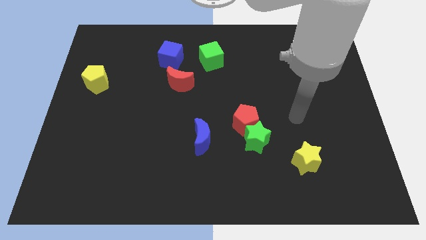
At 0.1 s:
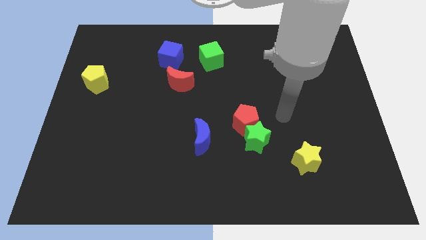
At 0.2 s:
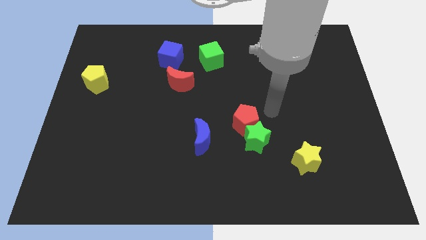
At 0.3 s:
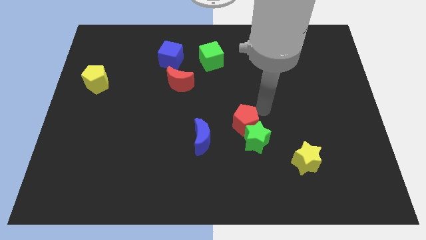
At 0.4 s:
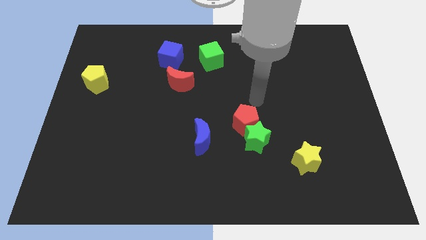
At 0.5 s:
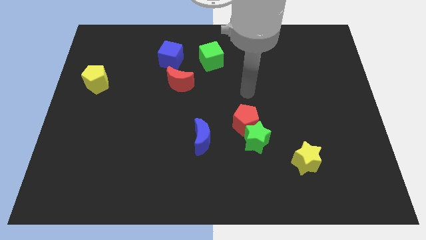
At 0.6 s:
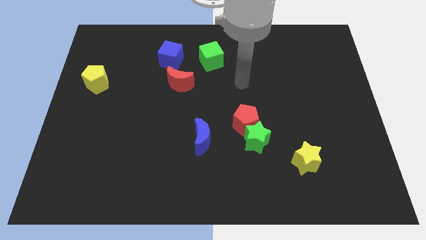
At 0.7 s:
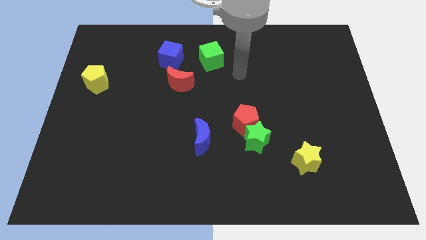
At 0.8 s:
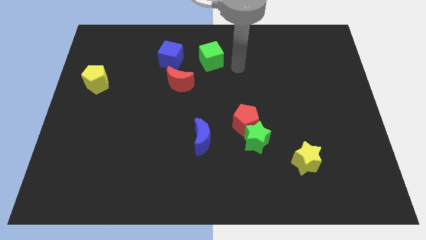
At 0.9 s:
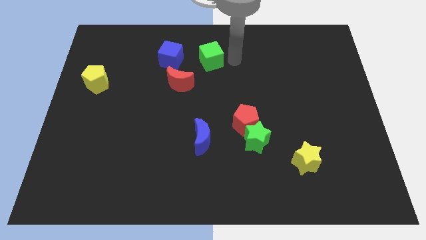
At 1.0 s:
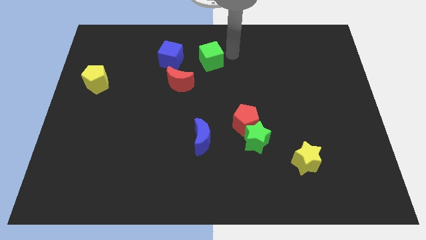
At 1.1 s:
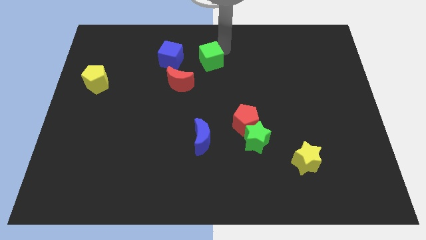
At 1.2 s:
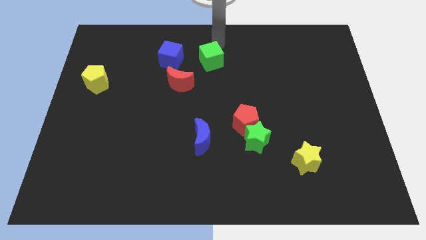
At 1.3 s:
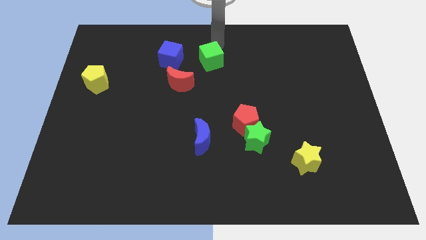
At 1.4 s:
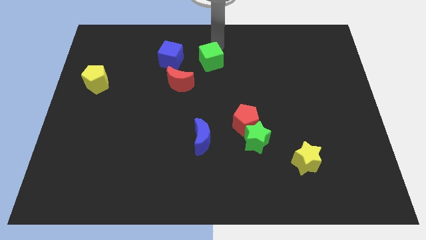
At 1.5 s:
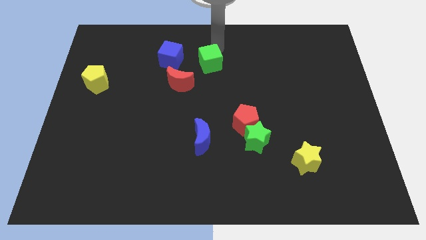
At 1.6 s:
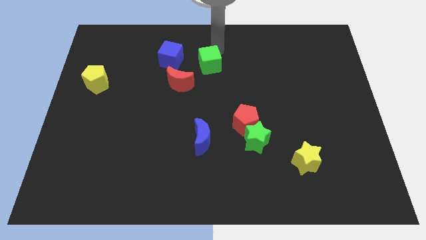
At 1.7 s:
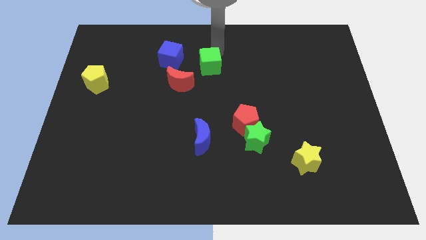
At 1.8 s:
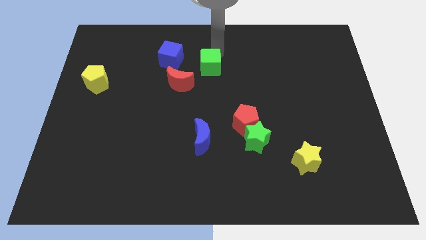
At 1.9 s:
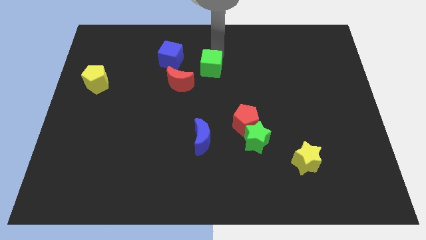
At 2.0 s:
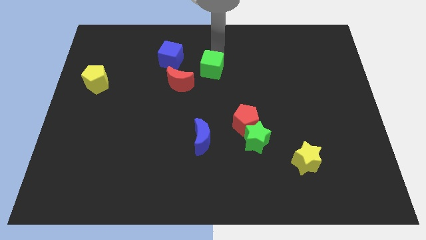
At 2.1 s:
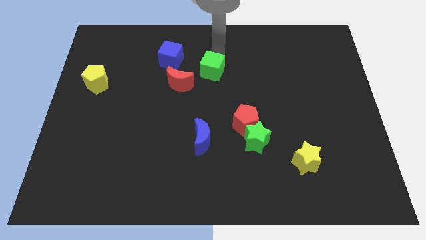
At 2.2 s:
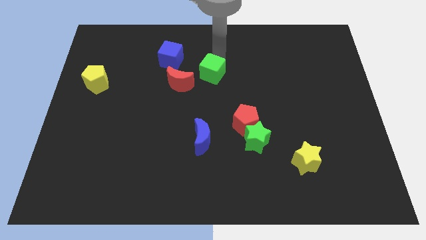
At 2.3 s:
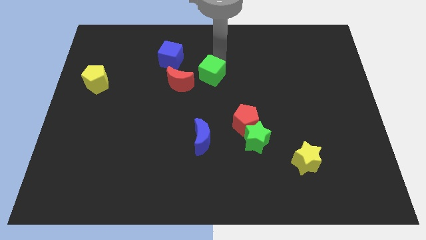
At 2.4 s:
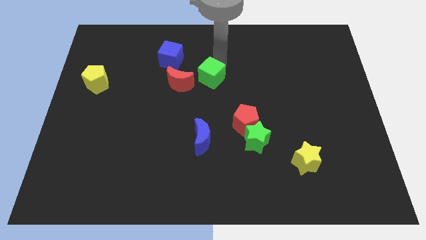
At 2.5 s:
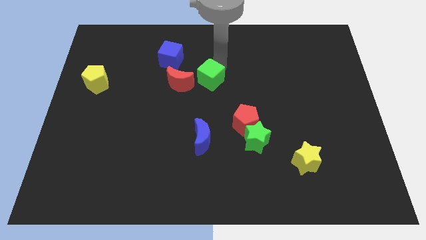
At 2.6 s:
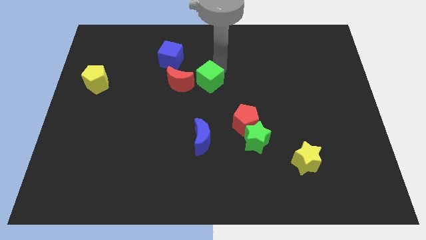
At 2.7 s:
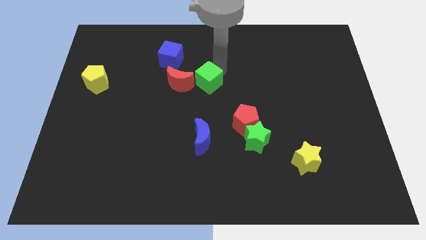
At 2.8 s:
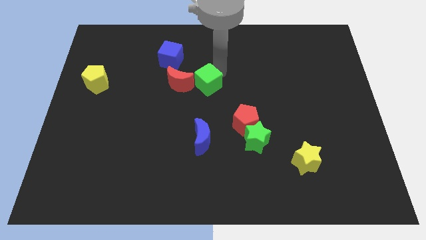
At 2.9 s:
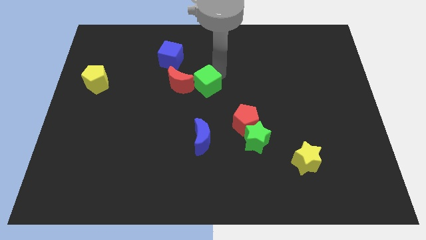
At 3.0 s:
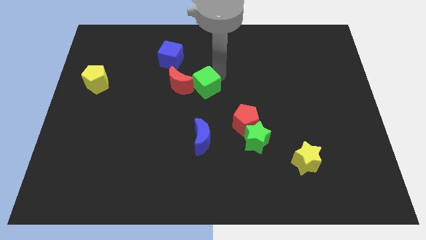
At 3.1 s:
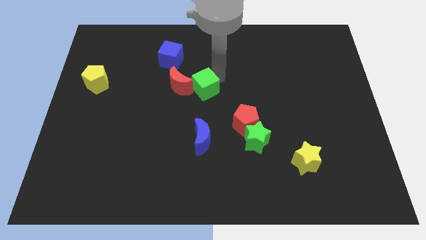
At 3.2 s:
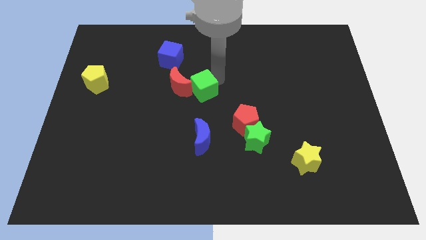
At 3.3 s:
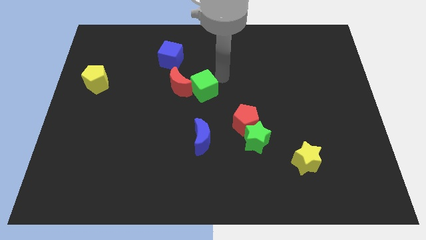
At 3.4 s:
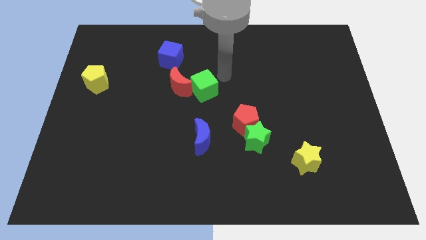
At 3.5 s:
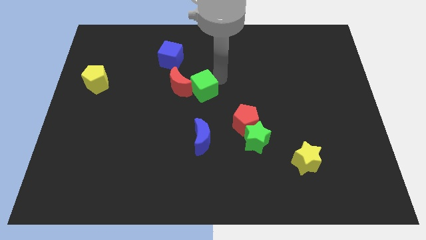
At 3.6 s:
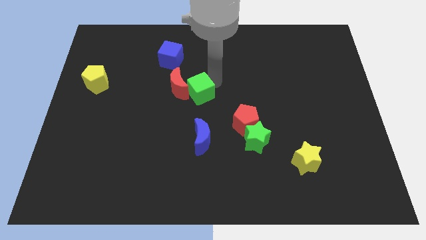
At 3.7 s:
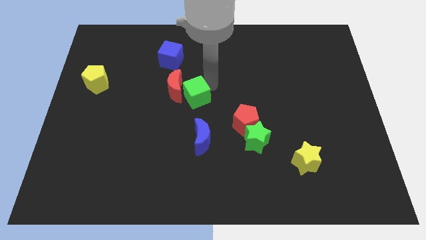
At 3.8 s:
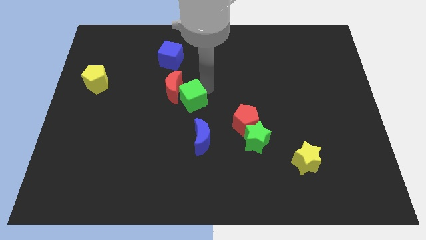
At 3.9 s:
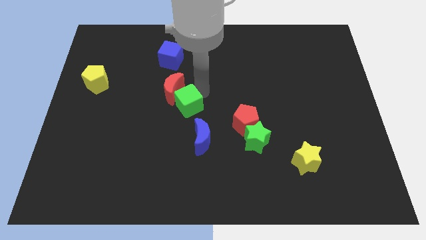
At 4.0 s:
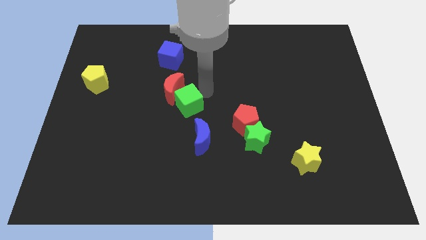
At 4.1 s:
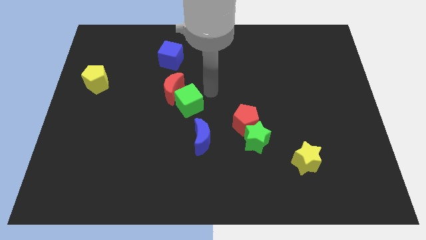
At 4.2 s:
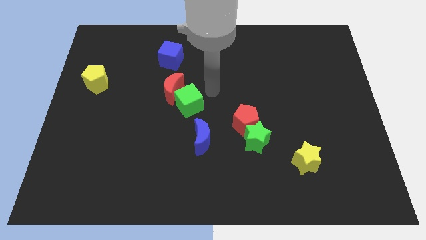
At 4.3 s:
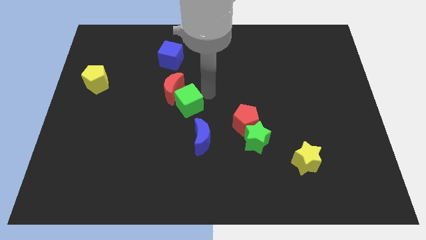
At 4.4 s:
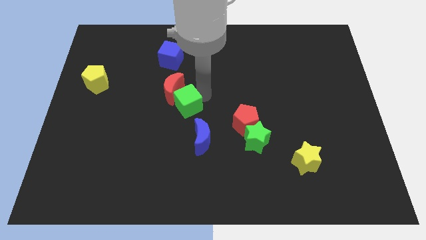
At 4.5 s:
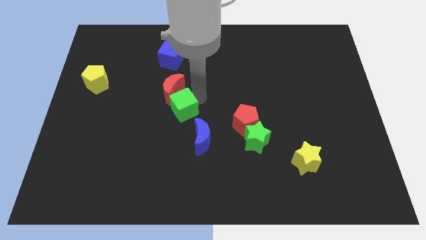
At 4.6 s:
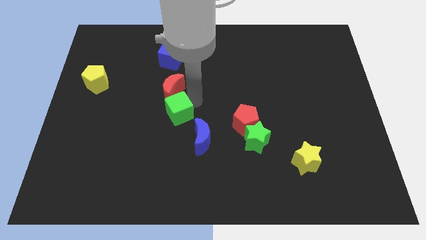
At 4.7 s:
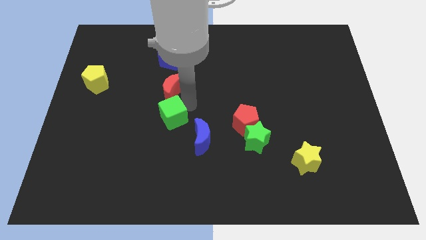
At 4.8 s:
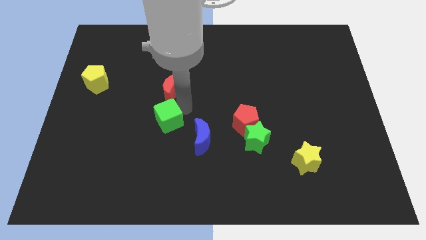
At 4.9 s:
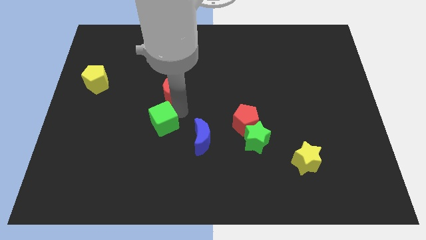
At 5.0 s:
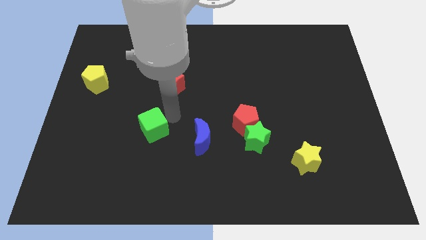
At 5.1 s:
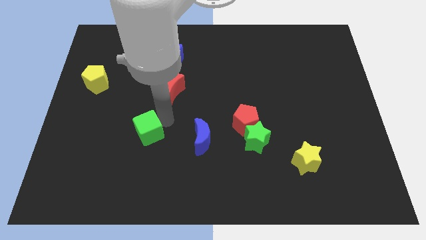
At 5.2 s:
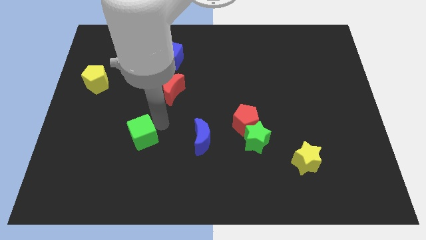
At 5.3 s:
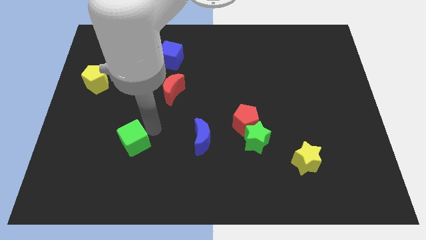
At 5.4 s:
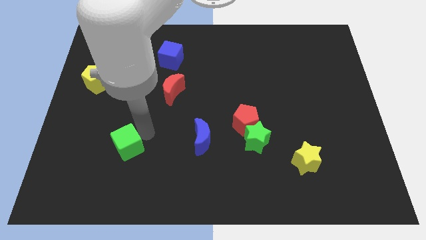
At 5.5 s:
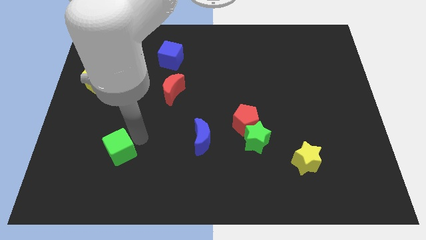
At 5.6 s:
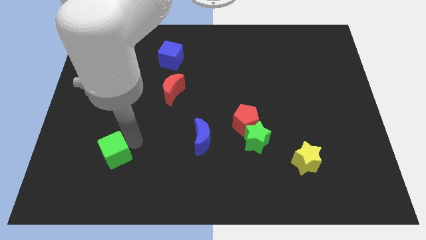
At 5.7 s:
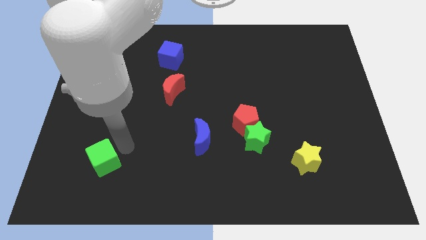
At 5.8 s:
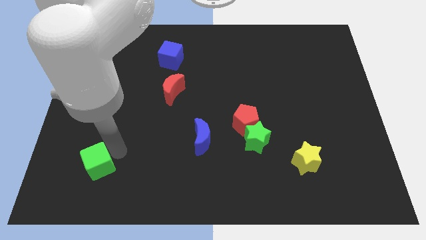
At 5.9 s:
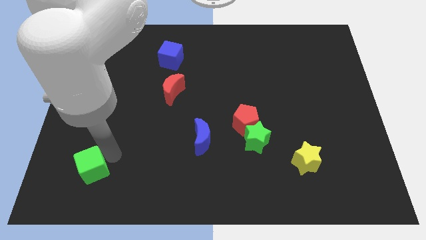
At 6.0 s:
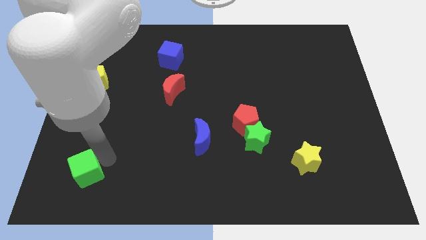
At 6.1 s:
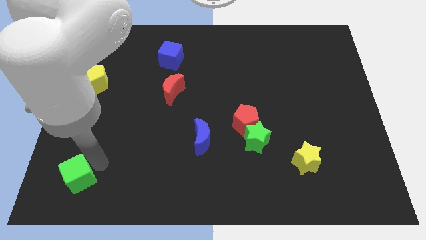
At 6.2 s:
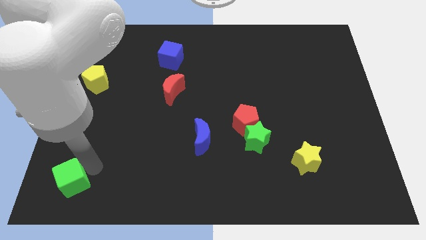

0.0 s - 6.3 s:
push the green cube to the bottom left of the board
